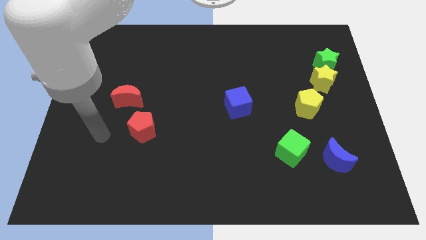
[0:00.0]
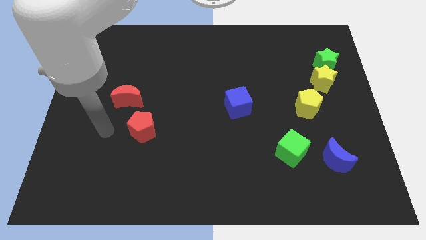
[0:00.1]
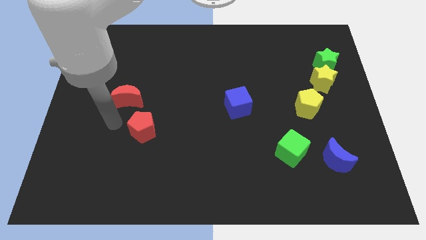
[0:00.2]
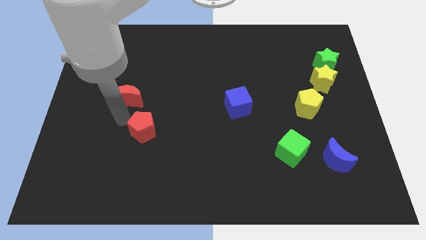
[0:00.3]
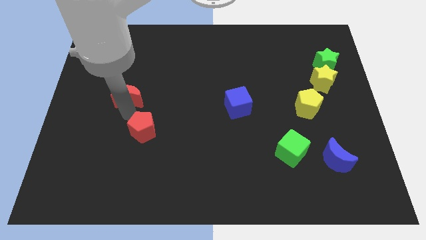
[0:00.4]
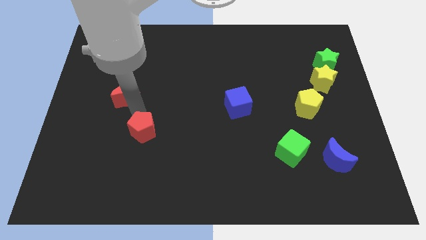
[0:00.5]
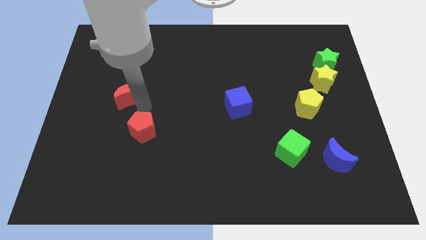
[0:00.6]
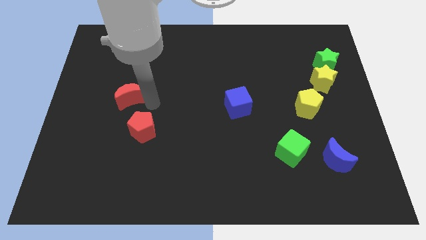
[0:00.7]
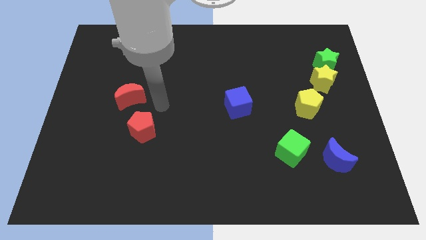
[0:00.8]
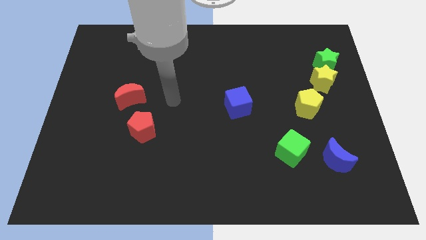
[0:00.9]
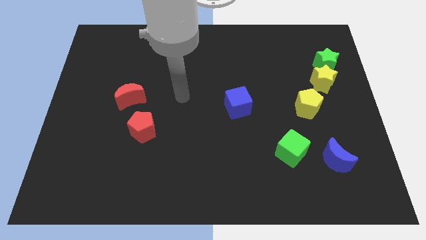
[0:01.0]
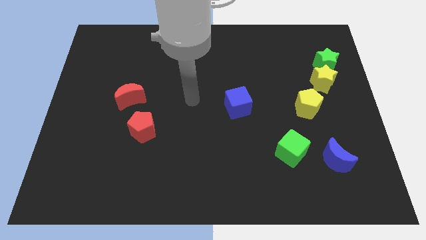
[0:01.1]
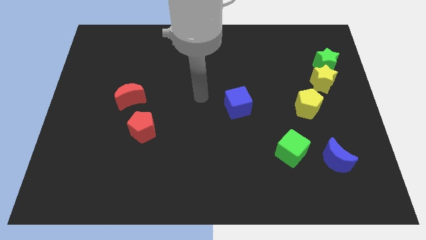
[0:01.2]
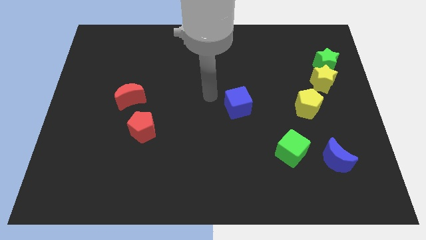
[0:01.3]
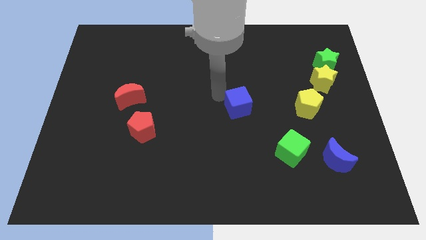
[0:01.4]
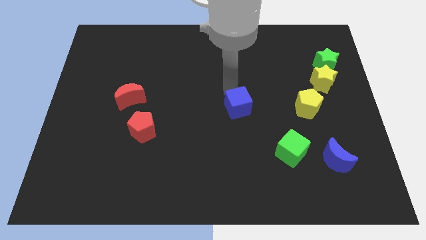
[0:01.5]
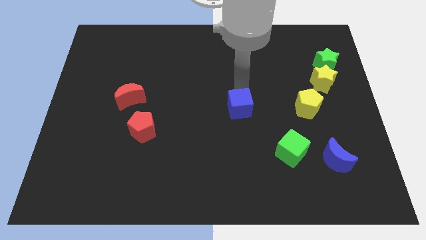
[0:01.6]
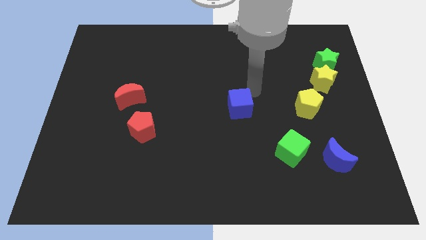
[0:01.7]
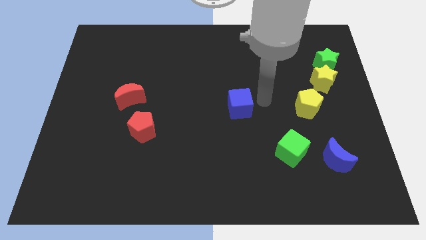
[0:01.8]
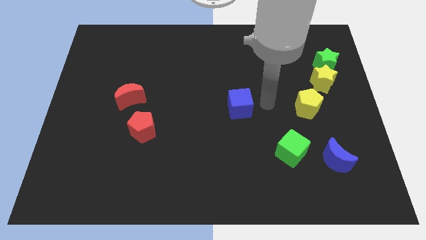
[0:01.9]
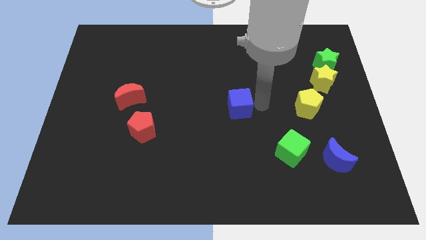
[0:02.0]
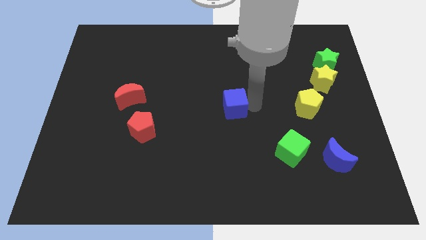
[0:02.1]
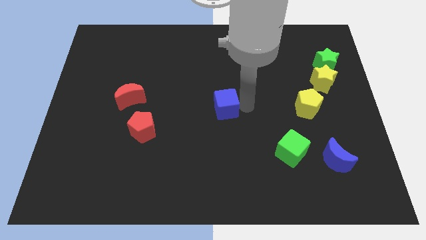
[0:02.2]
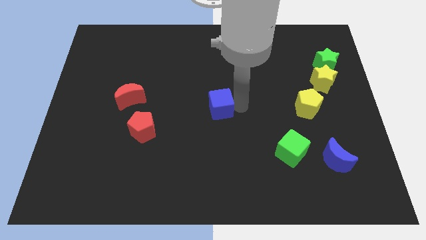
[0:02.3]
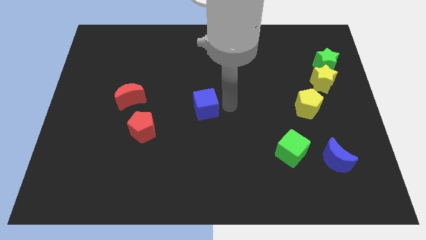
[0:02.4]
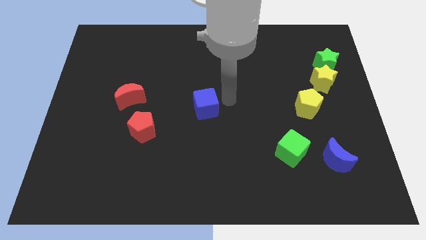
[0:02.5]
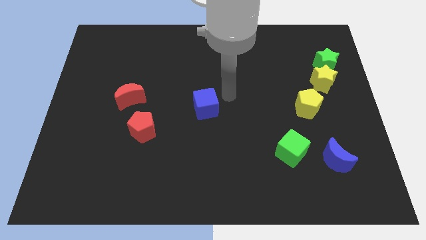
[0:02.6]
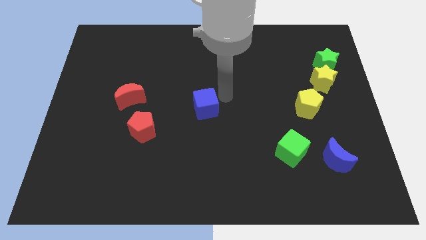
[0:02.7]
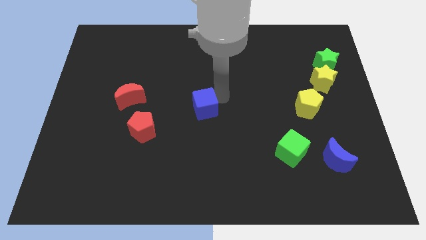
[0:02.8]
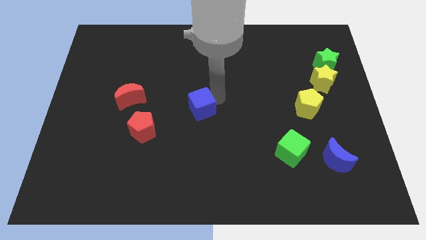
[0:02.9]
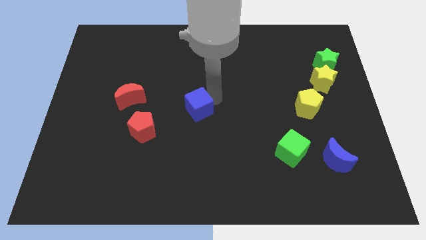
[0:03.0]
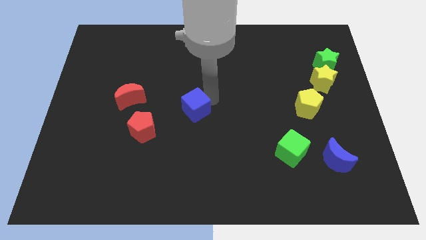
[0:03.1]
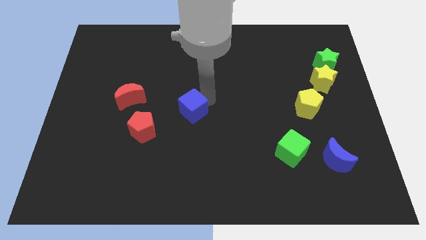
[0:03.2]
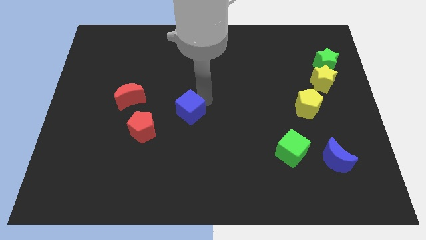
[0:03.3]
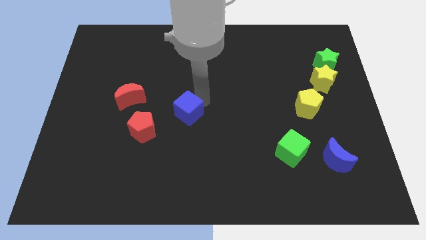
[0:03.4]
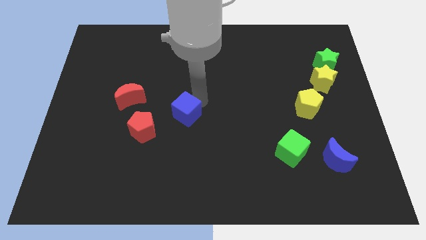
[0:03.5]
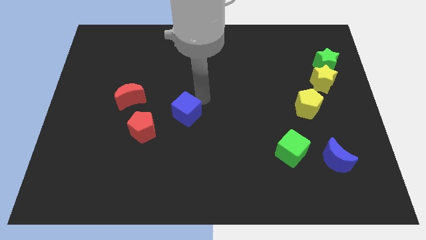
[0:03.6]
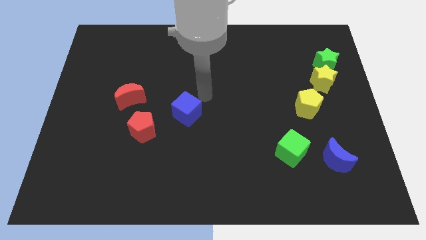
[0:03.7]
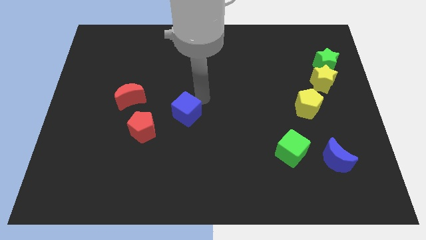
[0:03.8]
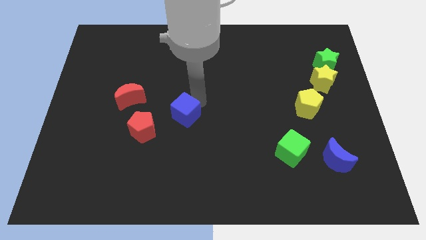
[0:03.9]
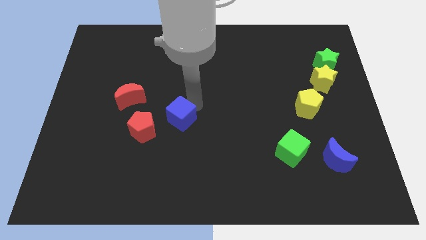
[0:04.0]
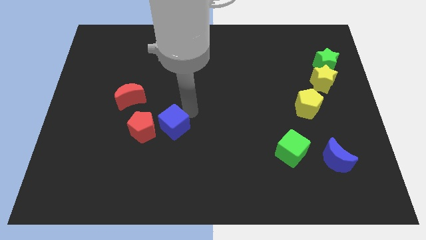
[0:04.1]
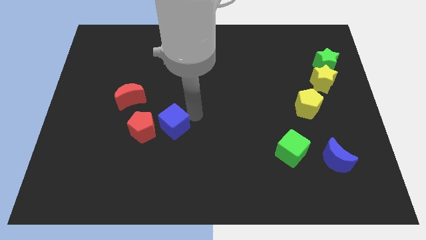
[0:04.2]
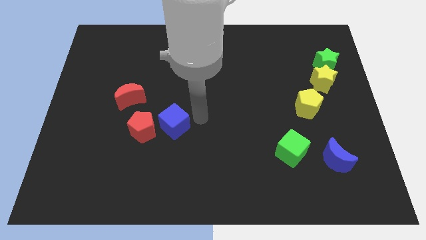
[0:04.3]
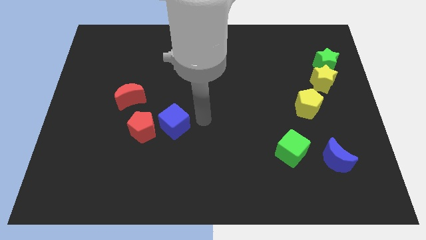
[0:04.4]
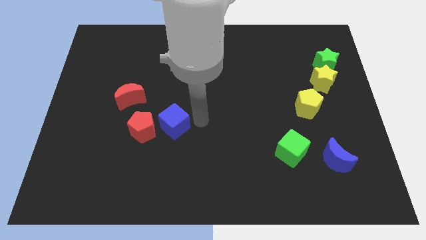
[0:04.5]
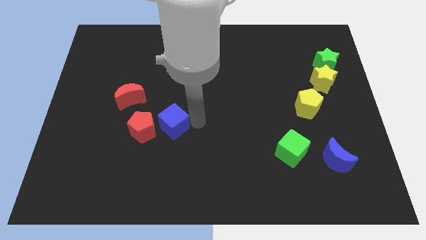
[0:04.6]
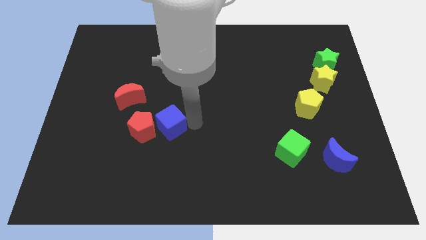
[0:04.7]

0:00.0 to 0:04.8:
put the blue cube towards the red pentagon

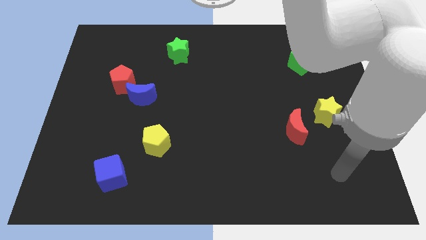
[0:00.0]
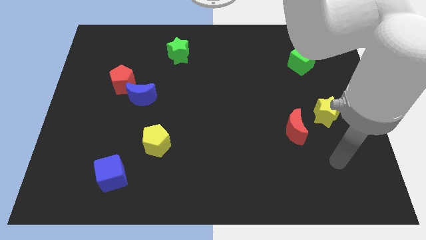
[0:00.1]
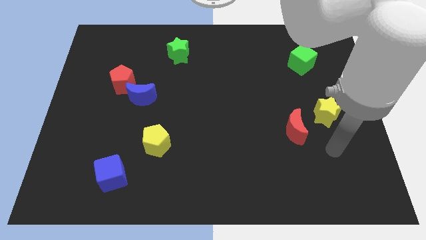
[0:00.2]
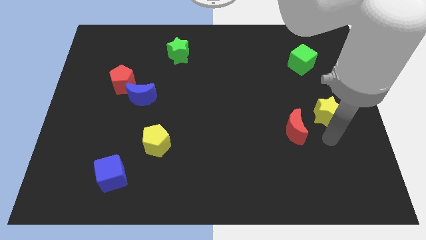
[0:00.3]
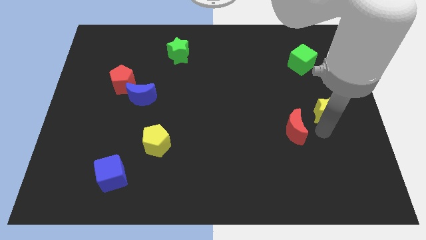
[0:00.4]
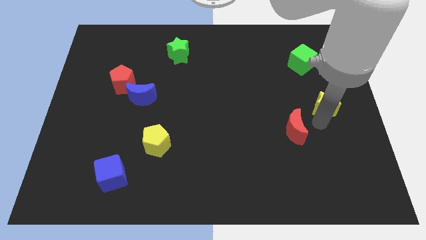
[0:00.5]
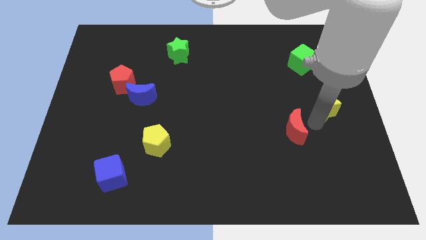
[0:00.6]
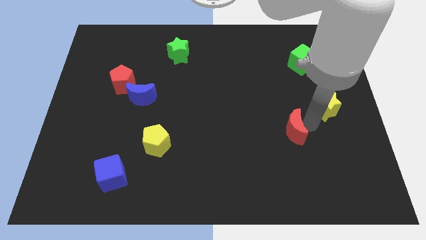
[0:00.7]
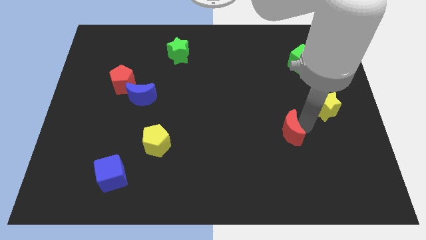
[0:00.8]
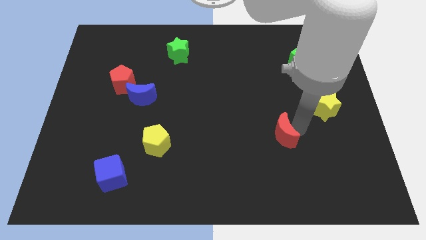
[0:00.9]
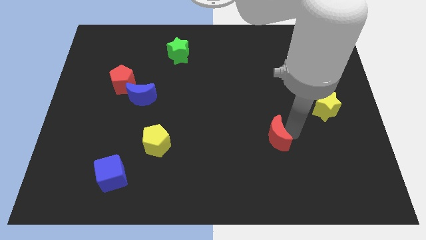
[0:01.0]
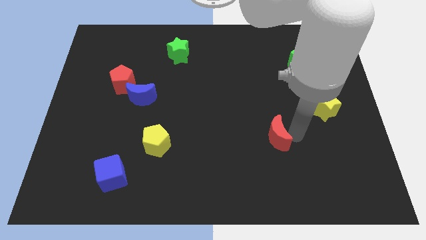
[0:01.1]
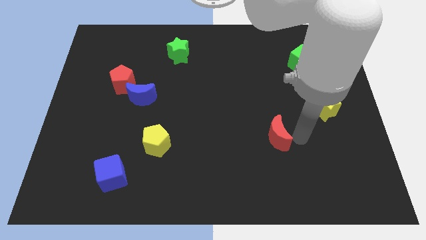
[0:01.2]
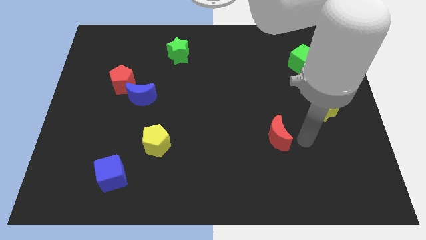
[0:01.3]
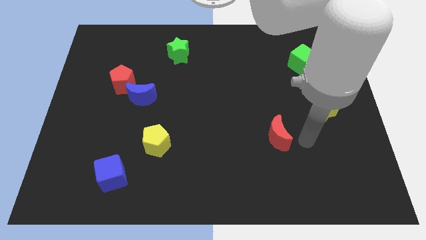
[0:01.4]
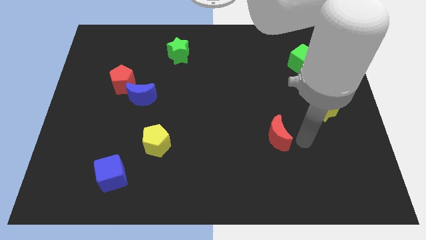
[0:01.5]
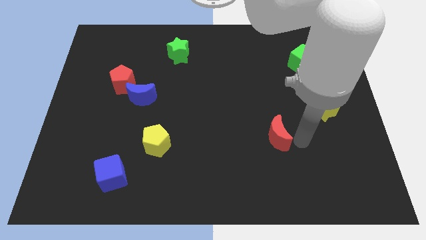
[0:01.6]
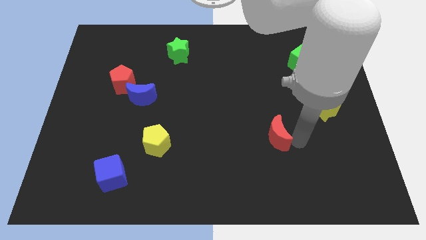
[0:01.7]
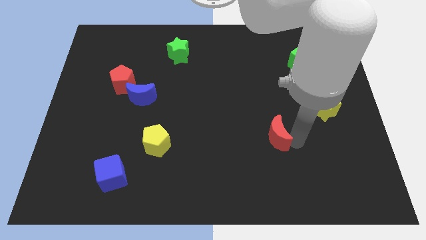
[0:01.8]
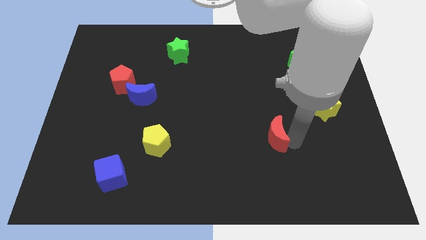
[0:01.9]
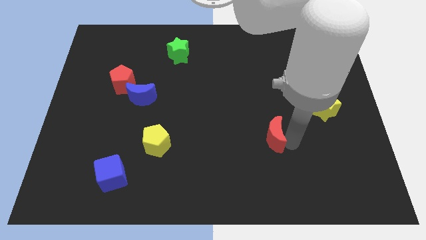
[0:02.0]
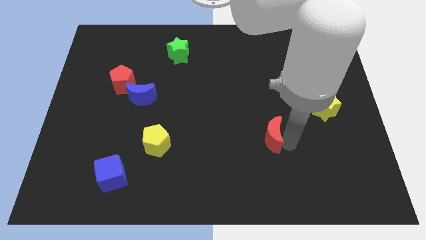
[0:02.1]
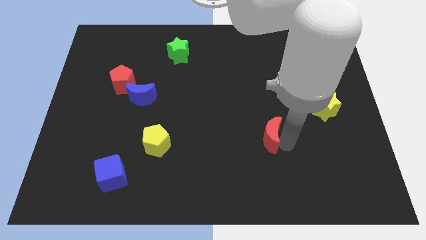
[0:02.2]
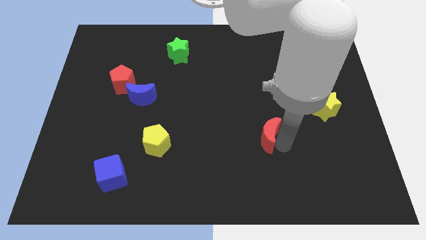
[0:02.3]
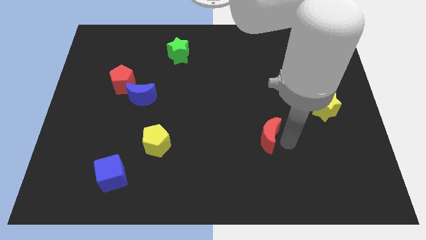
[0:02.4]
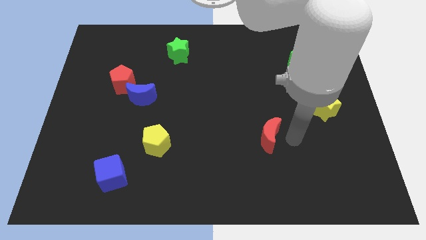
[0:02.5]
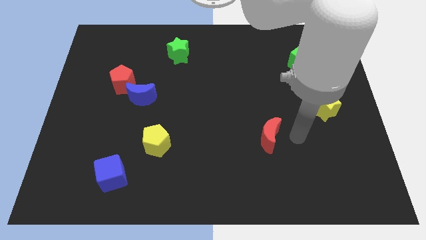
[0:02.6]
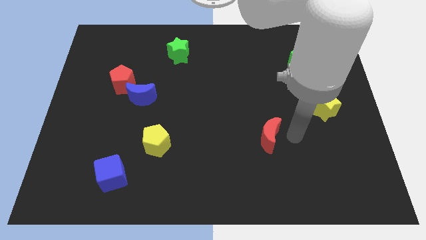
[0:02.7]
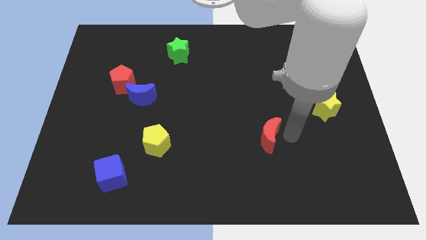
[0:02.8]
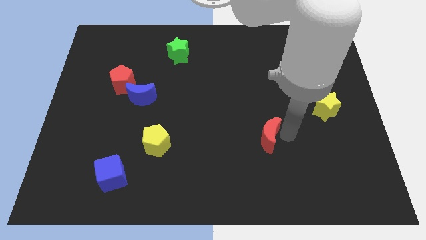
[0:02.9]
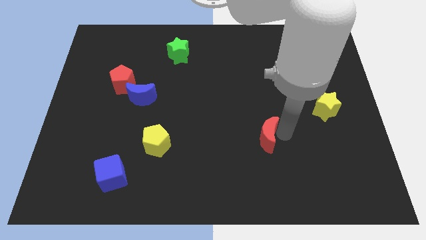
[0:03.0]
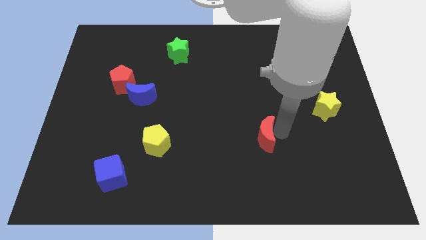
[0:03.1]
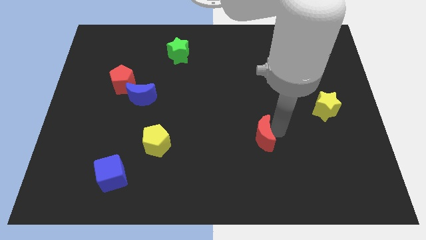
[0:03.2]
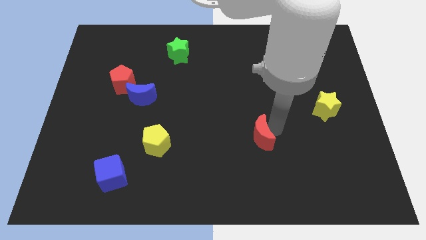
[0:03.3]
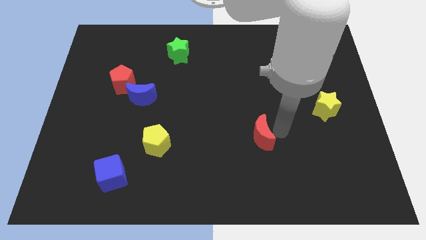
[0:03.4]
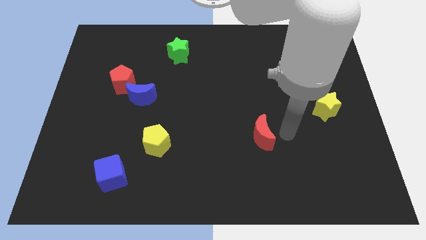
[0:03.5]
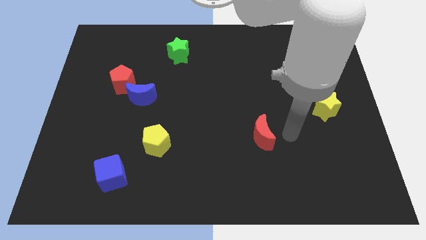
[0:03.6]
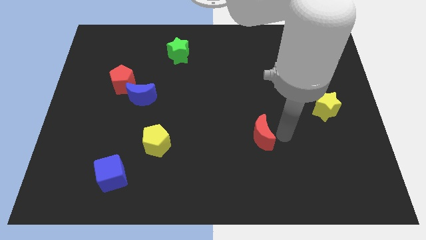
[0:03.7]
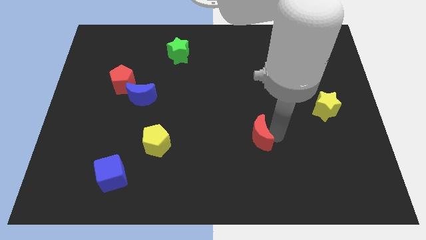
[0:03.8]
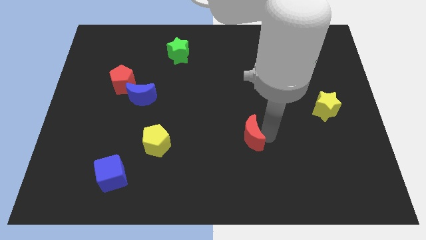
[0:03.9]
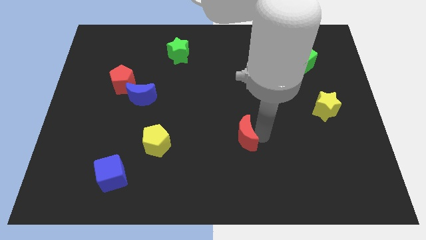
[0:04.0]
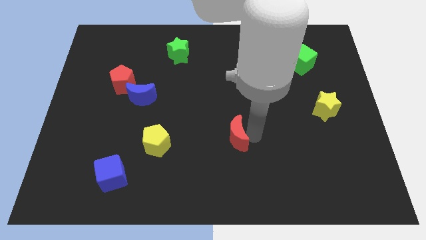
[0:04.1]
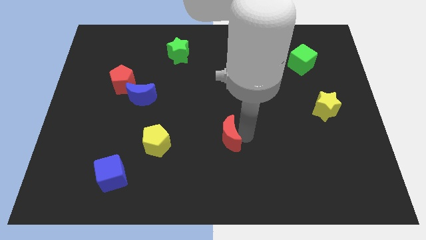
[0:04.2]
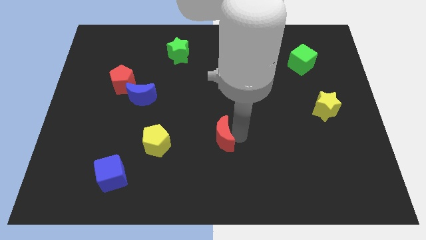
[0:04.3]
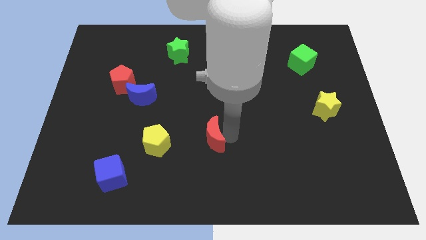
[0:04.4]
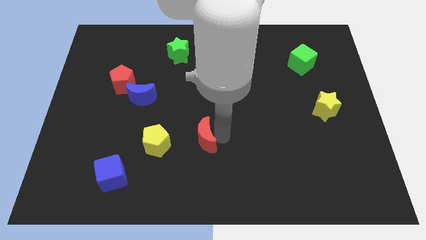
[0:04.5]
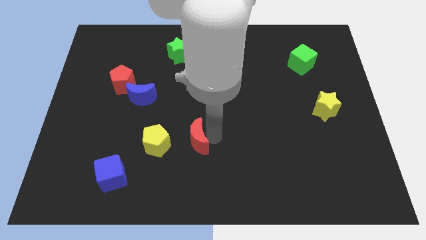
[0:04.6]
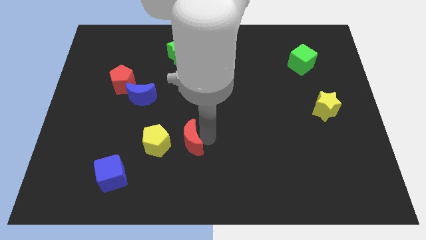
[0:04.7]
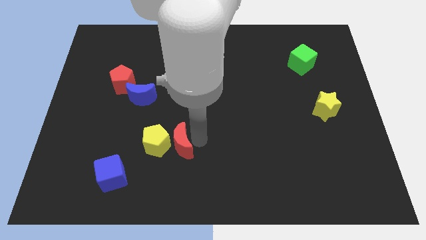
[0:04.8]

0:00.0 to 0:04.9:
put the red moon to the yellow pentagon
